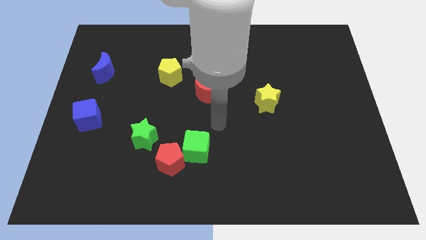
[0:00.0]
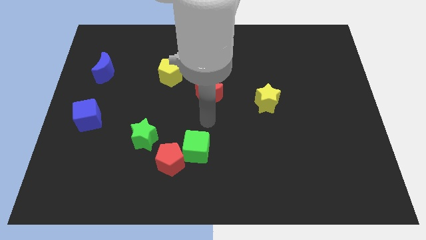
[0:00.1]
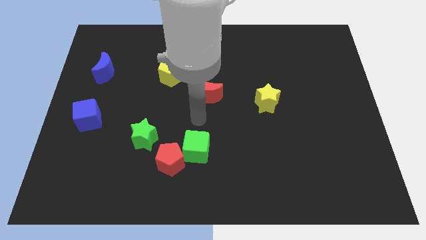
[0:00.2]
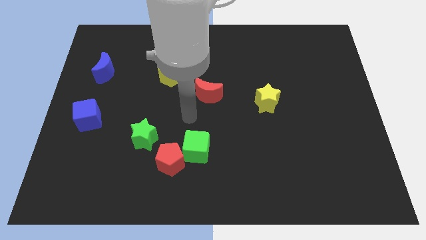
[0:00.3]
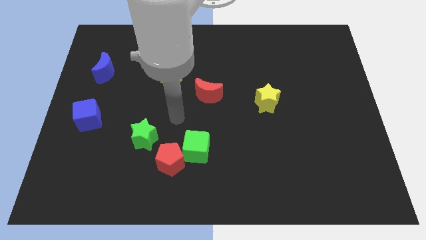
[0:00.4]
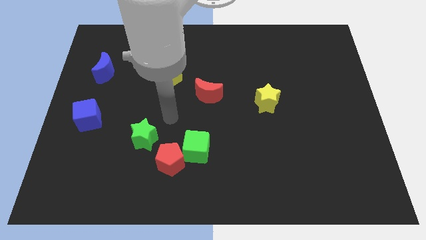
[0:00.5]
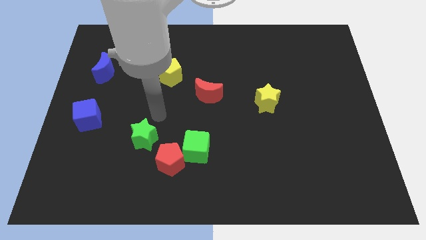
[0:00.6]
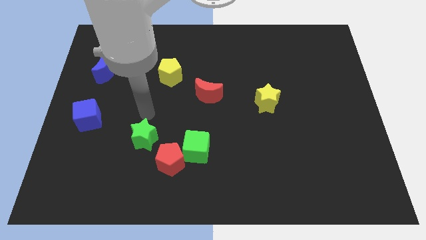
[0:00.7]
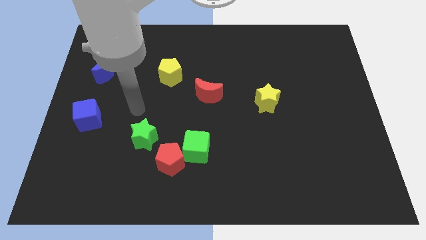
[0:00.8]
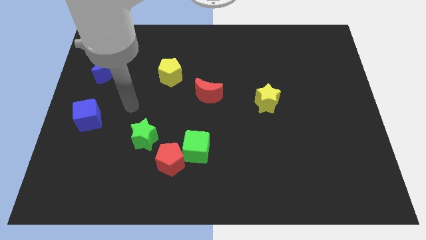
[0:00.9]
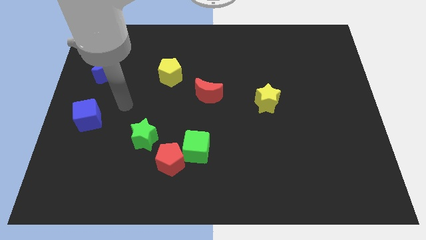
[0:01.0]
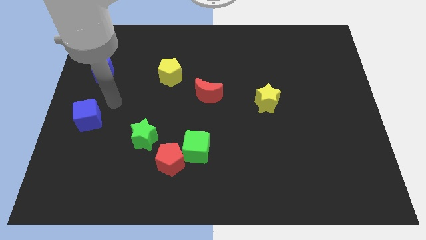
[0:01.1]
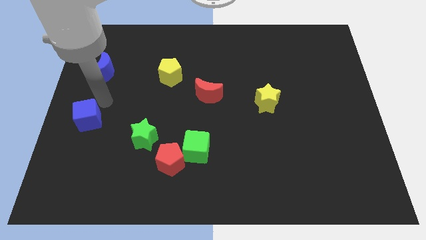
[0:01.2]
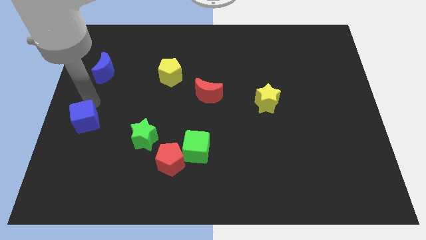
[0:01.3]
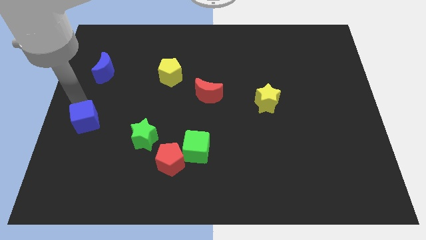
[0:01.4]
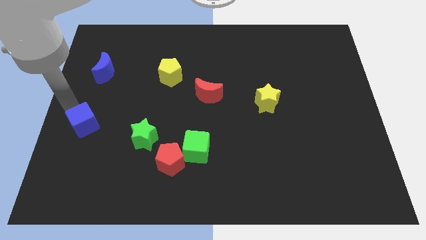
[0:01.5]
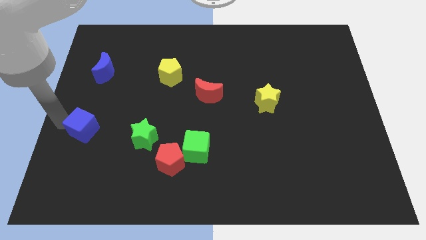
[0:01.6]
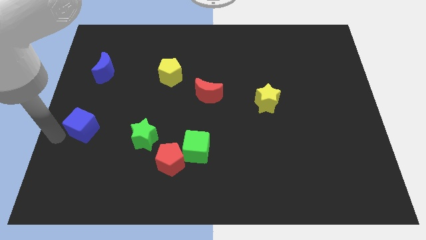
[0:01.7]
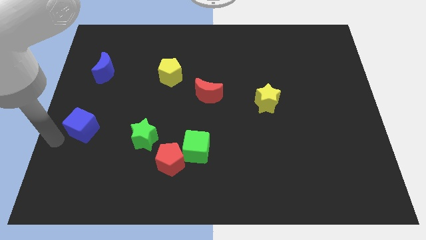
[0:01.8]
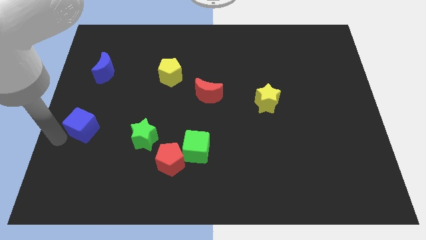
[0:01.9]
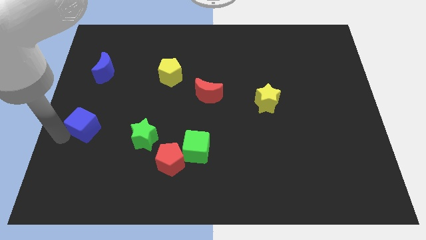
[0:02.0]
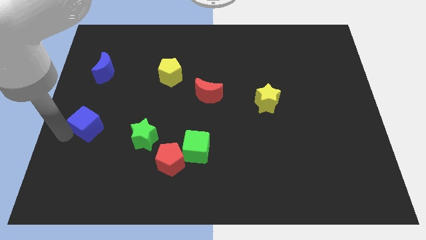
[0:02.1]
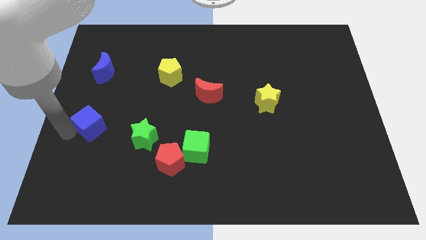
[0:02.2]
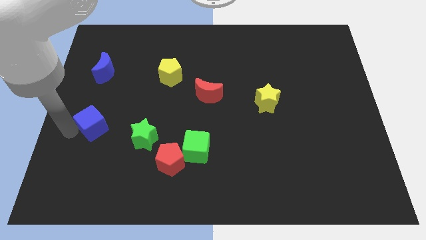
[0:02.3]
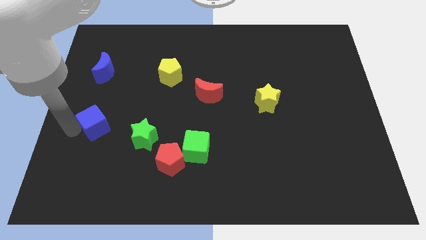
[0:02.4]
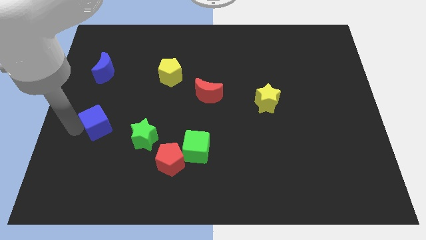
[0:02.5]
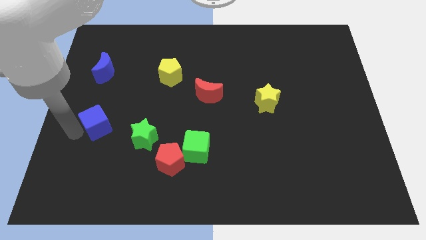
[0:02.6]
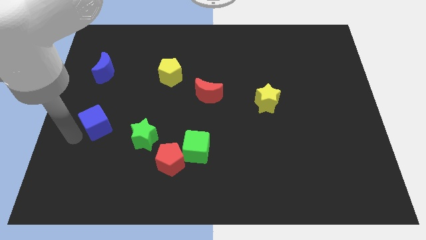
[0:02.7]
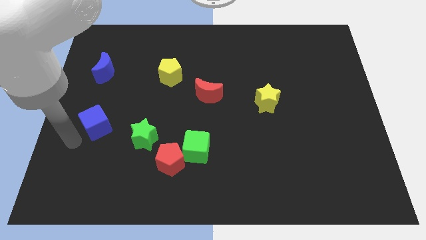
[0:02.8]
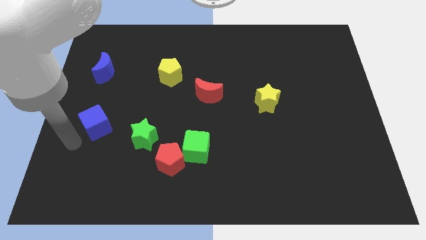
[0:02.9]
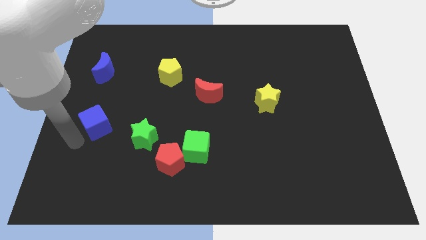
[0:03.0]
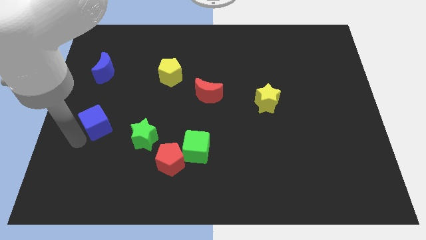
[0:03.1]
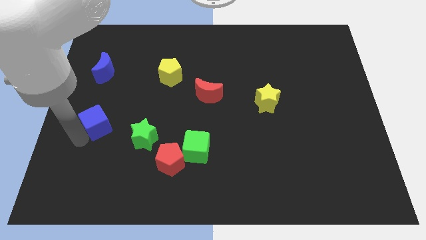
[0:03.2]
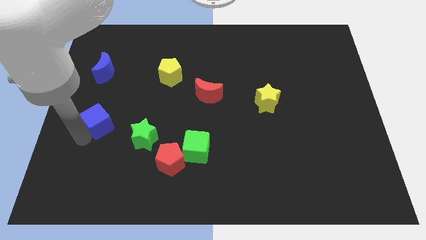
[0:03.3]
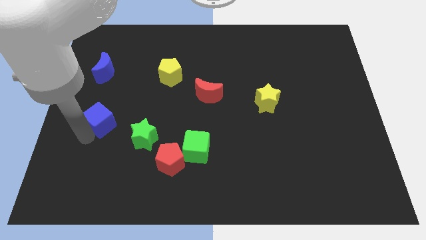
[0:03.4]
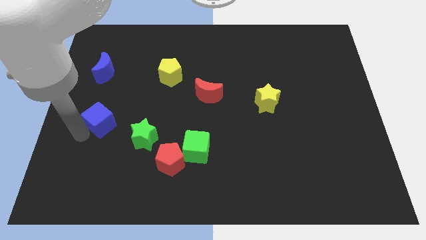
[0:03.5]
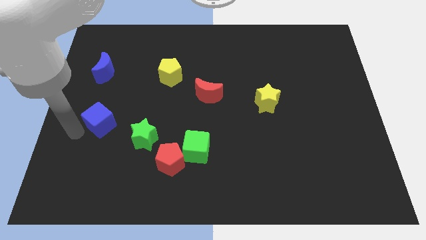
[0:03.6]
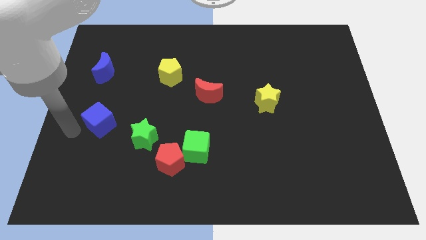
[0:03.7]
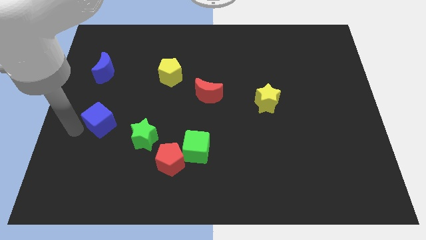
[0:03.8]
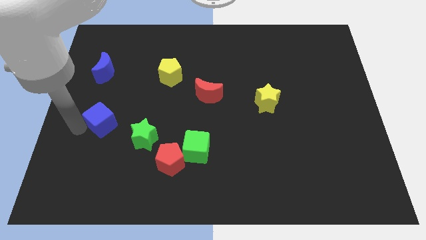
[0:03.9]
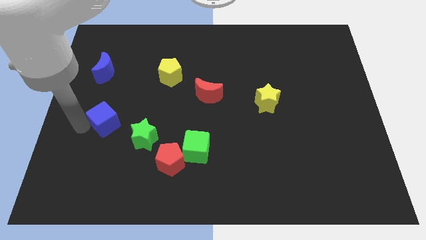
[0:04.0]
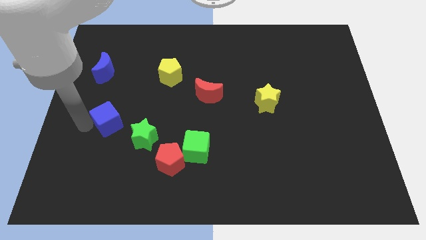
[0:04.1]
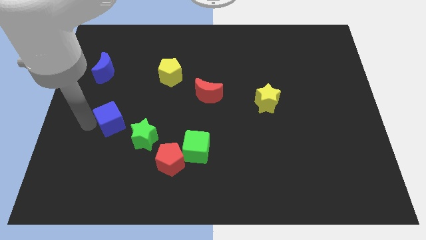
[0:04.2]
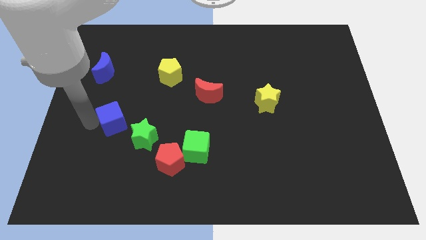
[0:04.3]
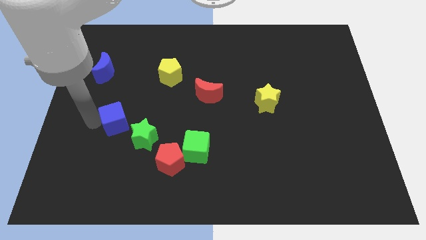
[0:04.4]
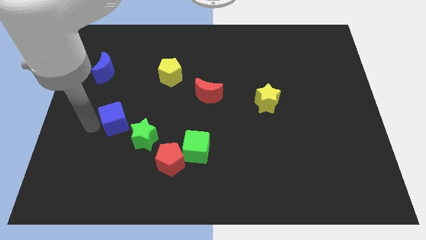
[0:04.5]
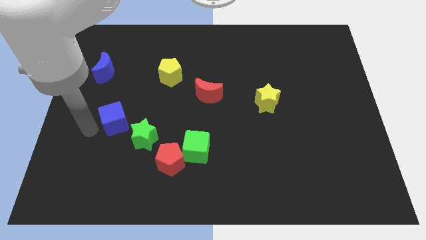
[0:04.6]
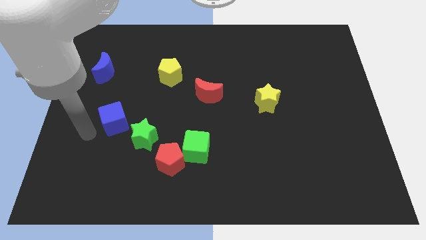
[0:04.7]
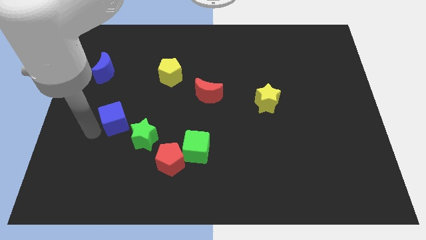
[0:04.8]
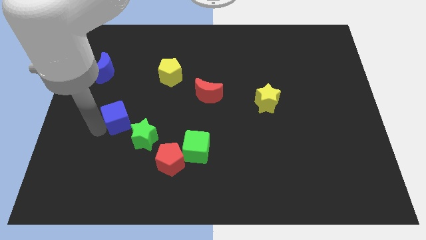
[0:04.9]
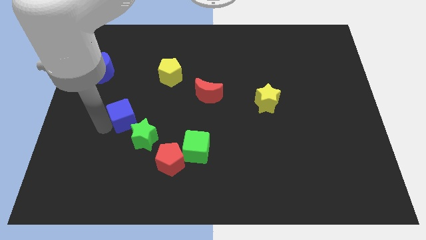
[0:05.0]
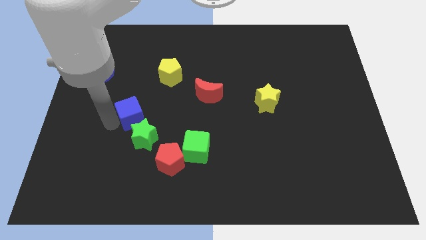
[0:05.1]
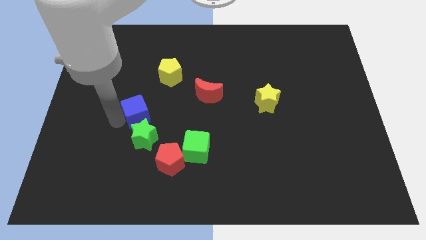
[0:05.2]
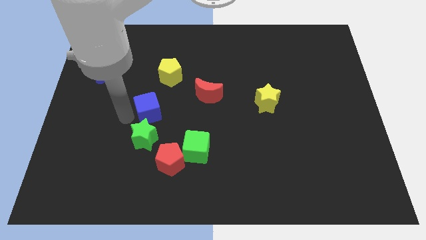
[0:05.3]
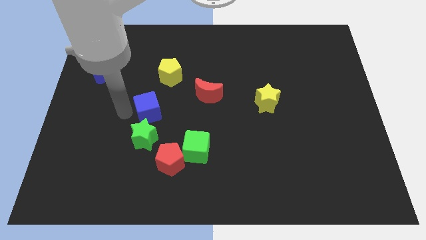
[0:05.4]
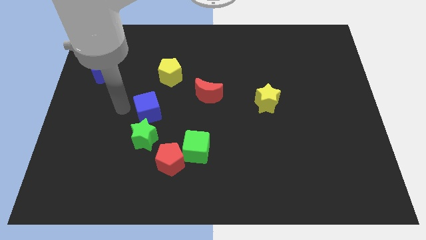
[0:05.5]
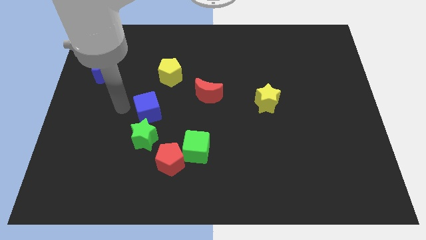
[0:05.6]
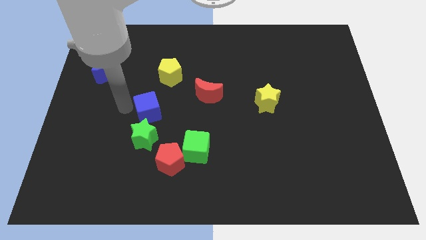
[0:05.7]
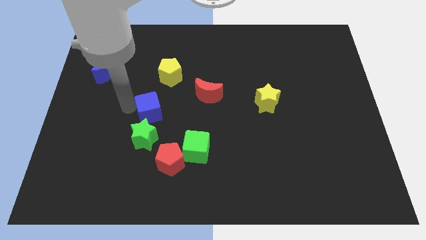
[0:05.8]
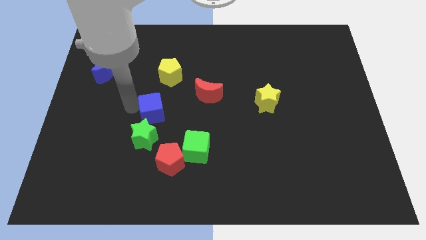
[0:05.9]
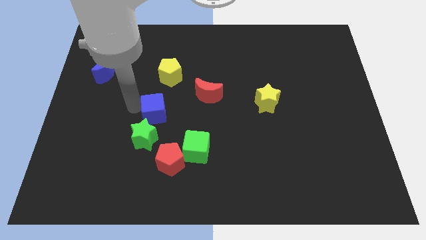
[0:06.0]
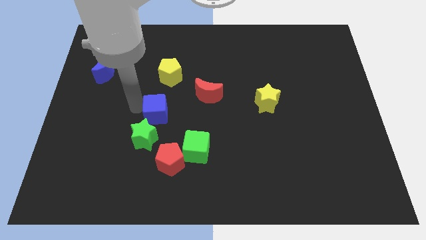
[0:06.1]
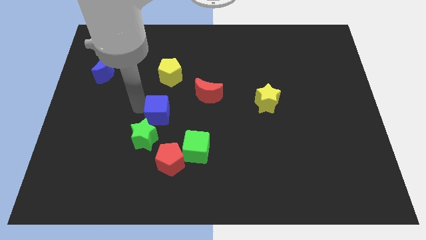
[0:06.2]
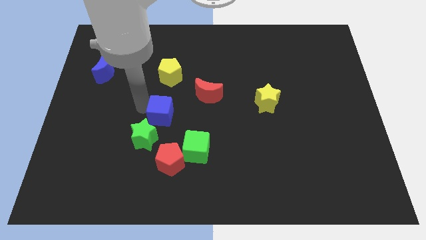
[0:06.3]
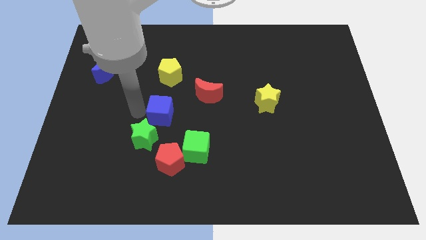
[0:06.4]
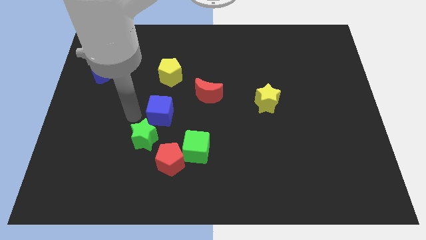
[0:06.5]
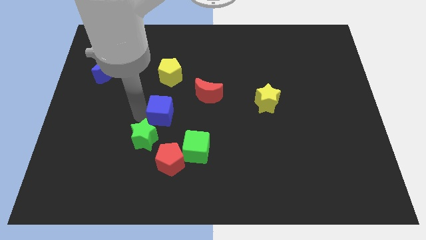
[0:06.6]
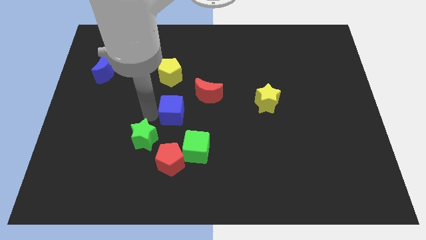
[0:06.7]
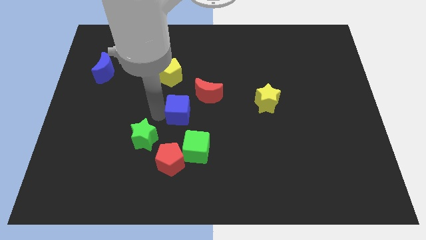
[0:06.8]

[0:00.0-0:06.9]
put the blue cube to the top side of the green cube
